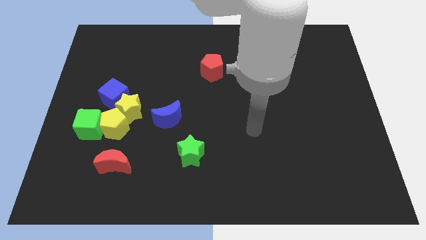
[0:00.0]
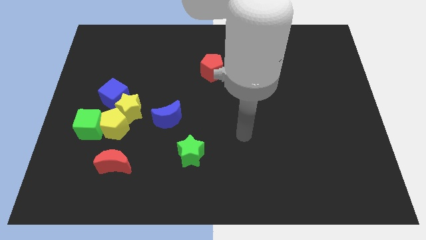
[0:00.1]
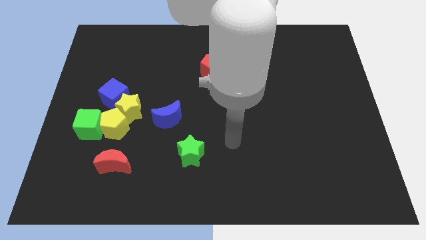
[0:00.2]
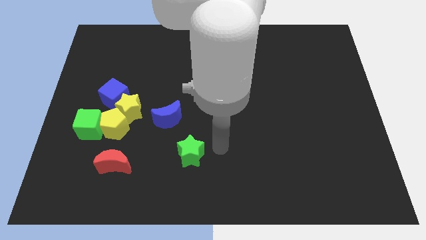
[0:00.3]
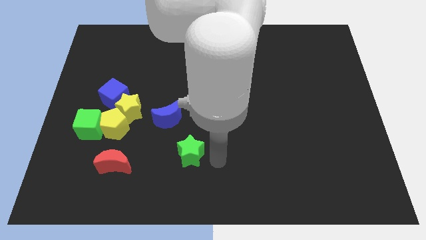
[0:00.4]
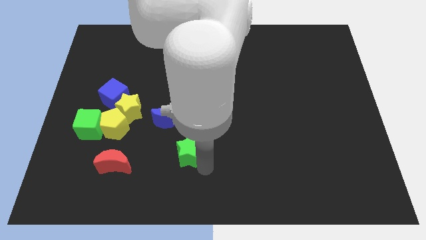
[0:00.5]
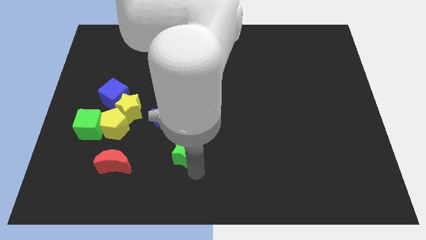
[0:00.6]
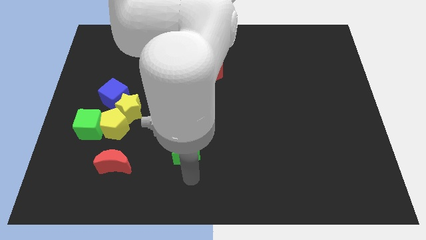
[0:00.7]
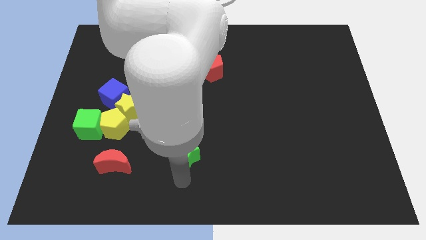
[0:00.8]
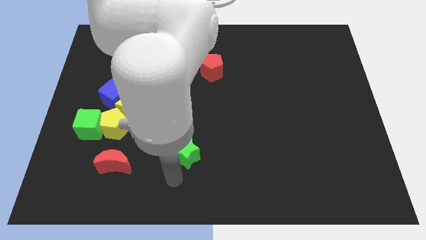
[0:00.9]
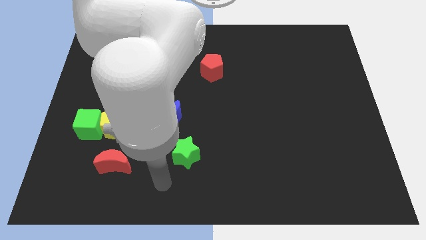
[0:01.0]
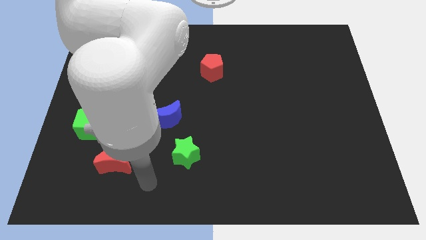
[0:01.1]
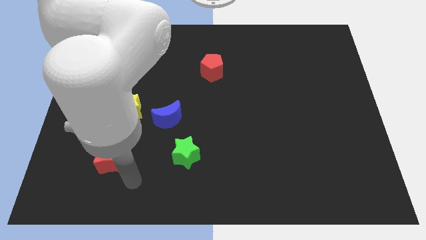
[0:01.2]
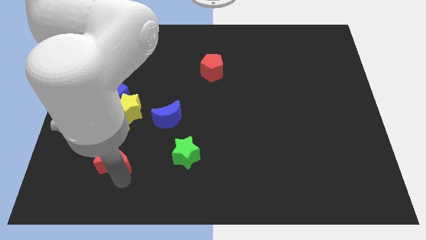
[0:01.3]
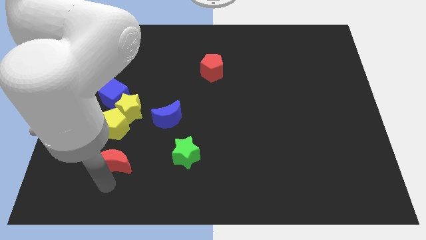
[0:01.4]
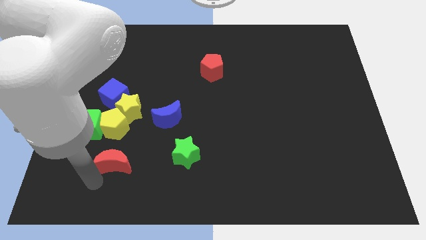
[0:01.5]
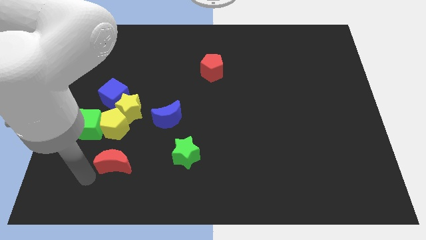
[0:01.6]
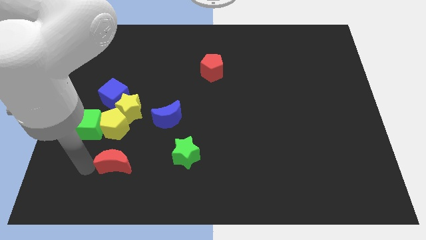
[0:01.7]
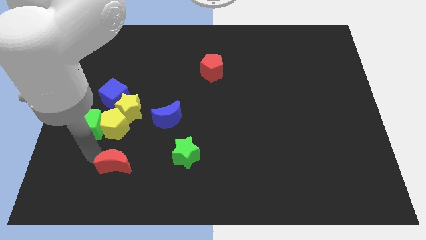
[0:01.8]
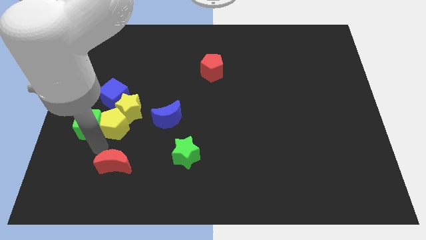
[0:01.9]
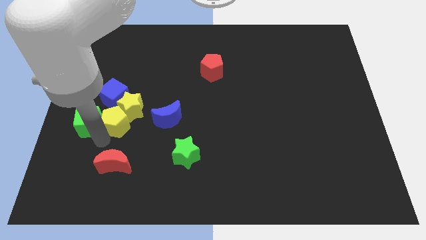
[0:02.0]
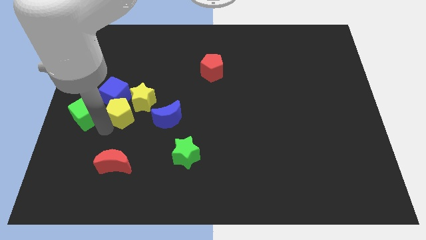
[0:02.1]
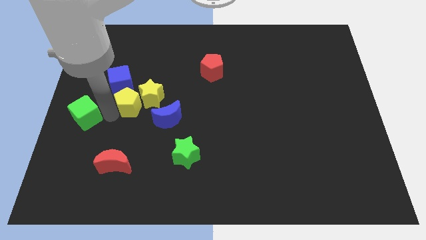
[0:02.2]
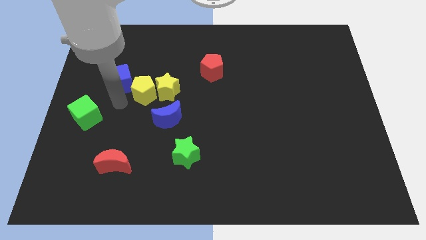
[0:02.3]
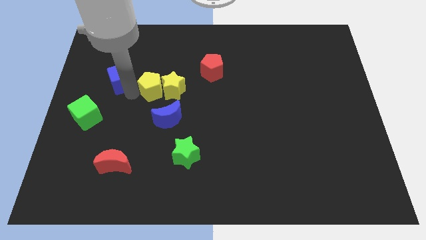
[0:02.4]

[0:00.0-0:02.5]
push the yellow star to the right a little bit

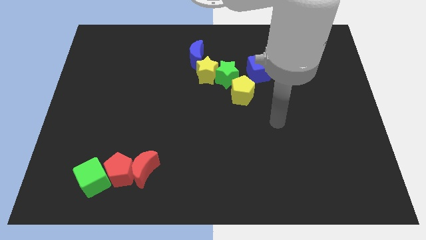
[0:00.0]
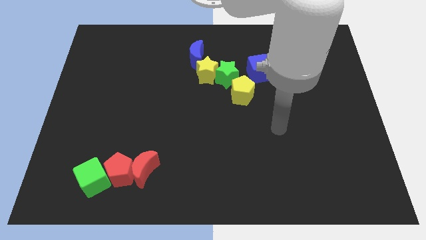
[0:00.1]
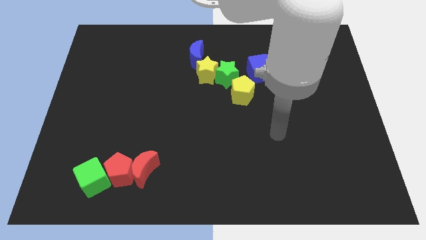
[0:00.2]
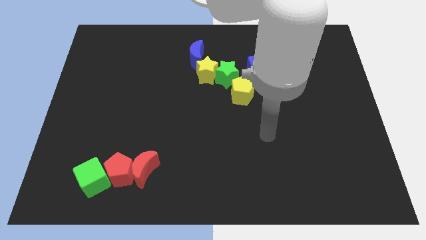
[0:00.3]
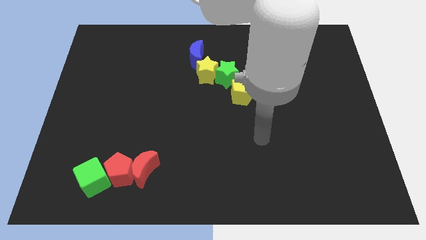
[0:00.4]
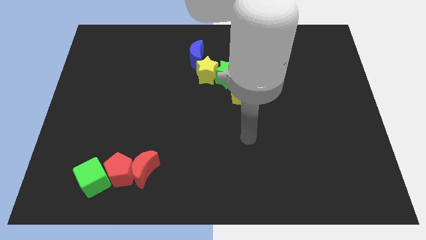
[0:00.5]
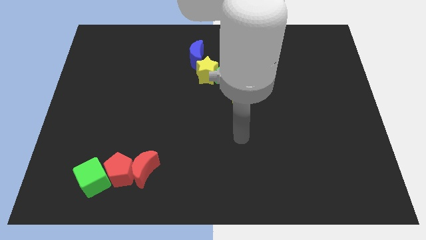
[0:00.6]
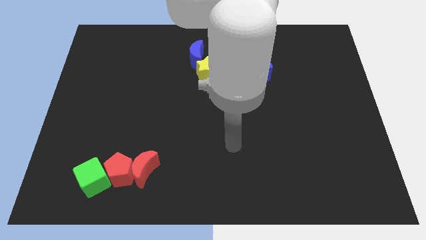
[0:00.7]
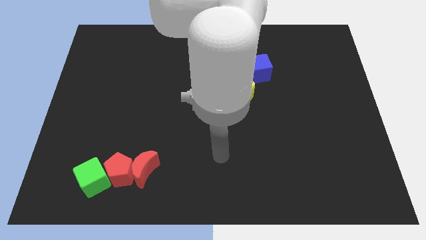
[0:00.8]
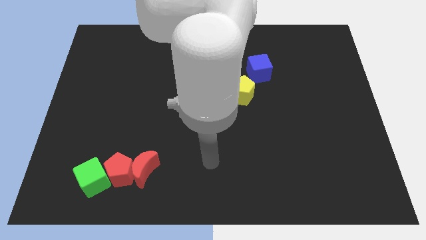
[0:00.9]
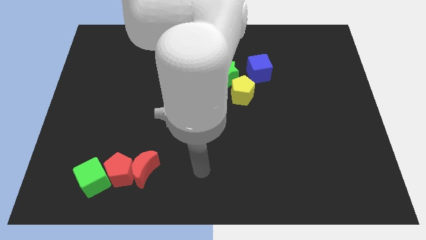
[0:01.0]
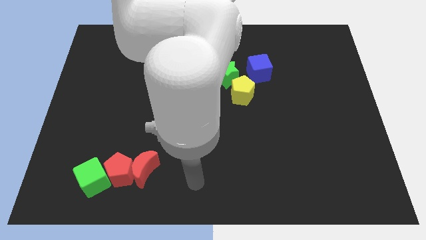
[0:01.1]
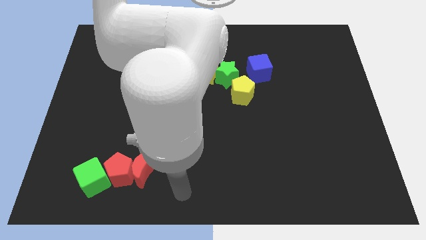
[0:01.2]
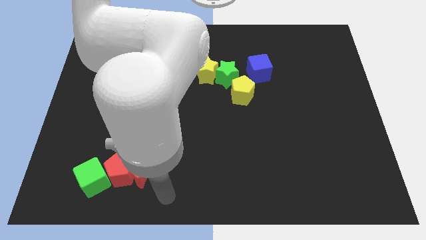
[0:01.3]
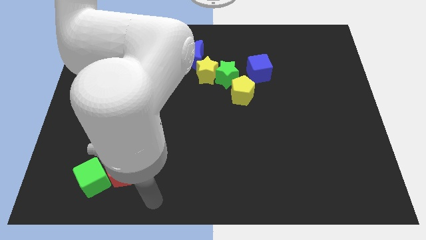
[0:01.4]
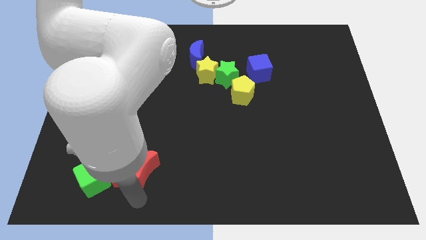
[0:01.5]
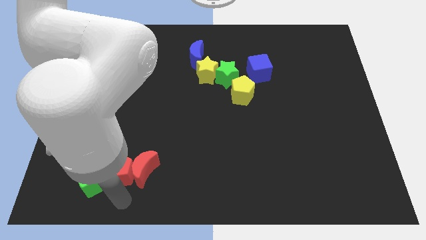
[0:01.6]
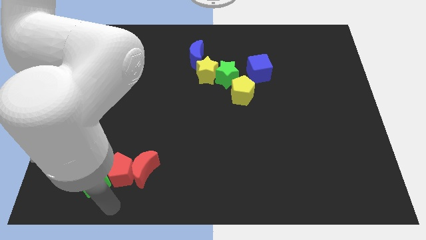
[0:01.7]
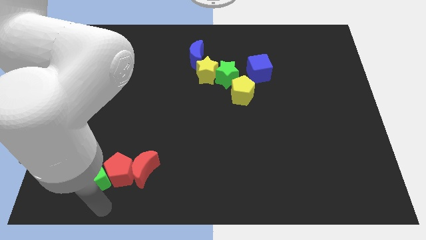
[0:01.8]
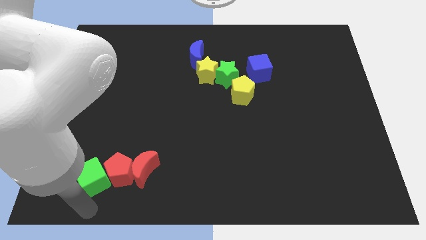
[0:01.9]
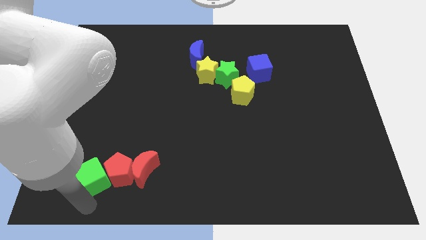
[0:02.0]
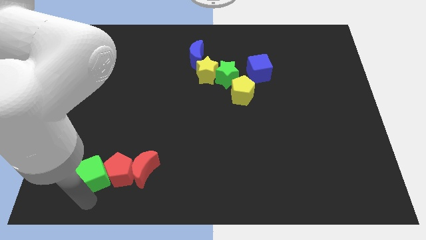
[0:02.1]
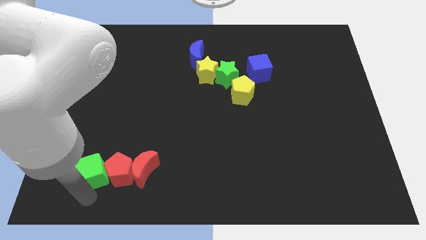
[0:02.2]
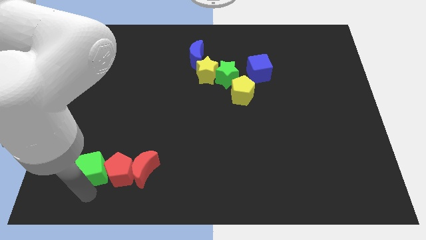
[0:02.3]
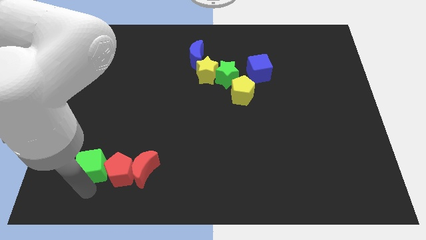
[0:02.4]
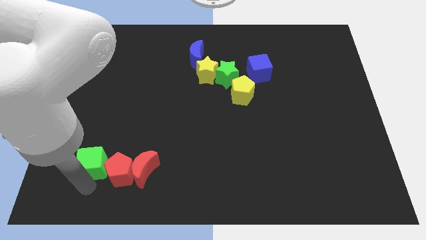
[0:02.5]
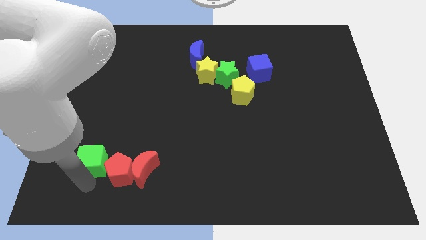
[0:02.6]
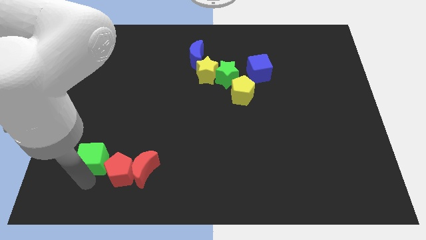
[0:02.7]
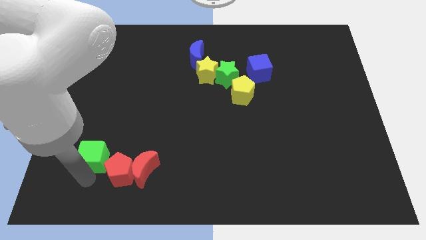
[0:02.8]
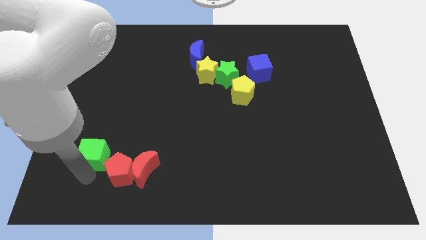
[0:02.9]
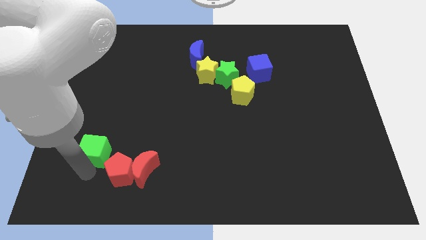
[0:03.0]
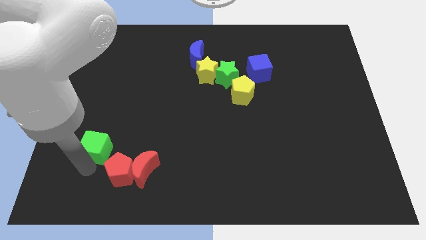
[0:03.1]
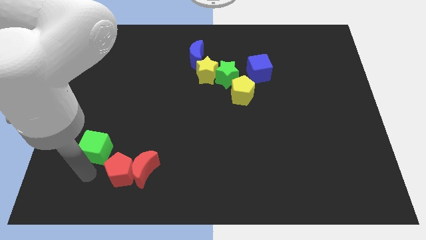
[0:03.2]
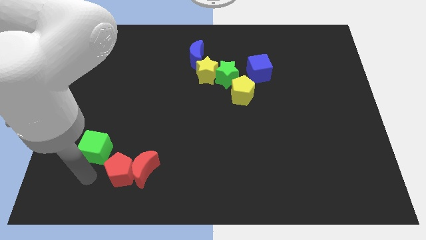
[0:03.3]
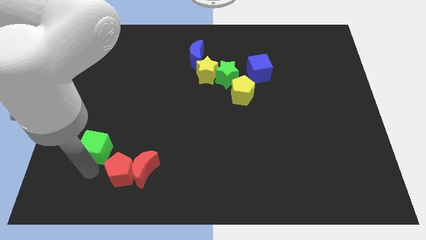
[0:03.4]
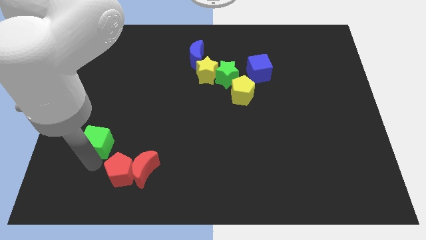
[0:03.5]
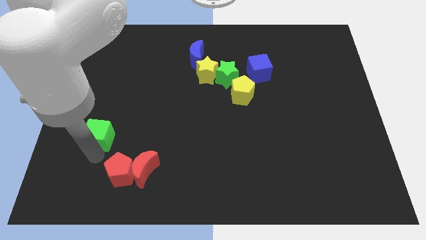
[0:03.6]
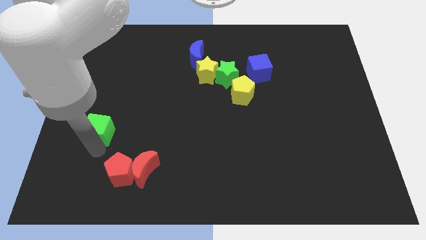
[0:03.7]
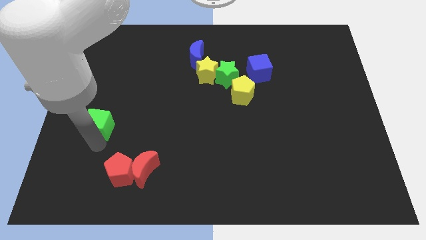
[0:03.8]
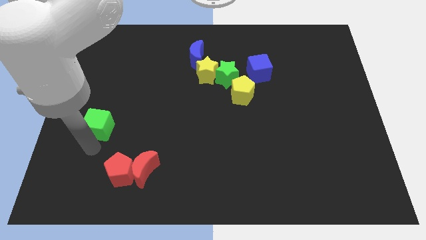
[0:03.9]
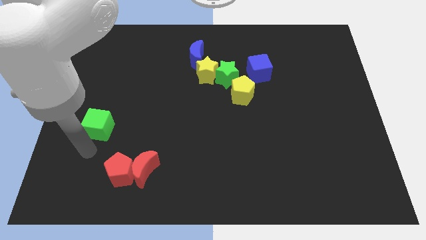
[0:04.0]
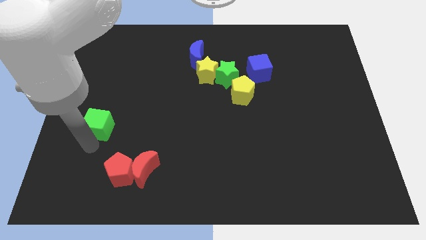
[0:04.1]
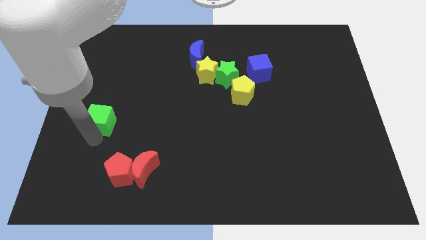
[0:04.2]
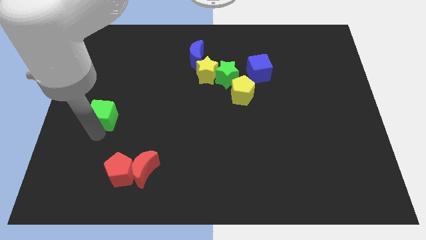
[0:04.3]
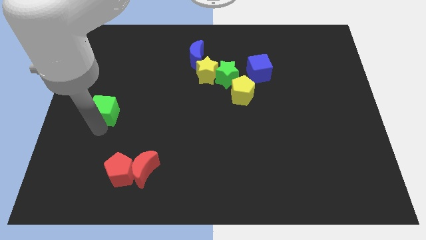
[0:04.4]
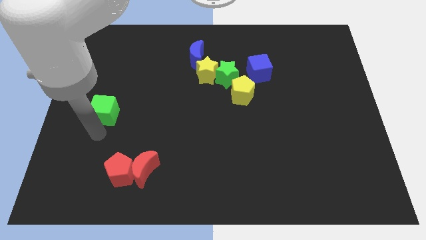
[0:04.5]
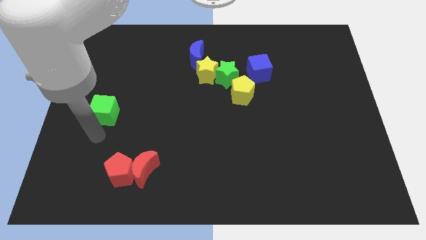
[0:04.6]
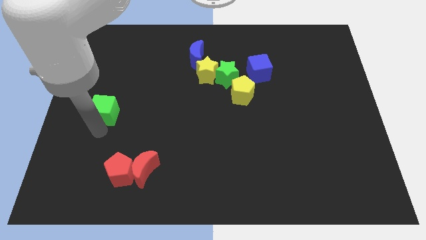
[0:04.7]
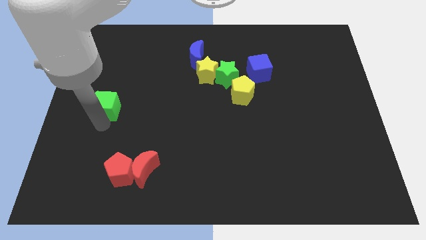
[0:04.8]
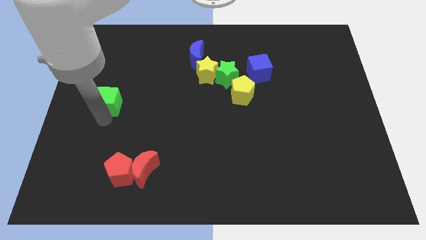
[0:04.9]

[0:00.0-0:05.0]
move the green cube upwards

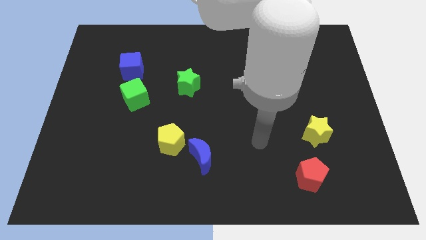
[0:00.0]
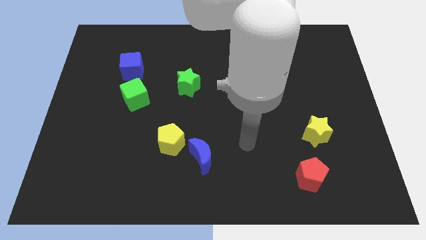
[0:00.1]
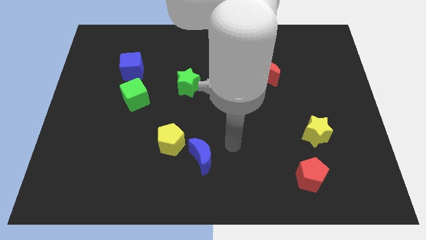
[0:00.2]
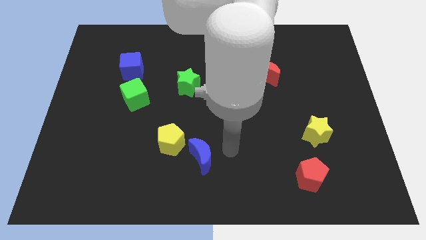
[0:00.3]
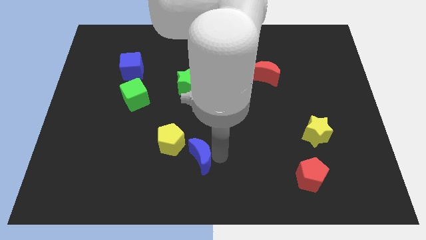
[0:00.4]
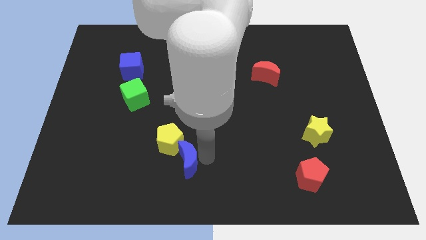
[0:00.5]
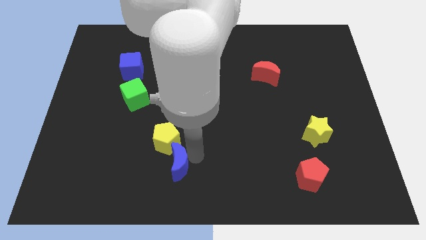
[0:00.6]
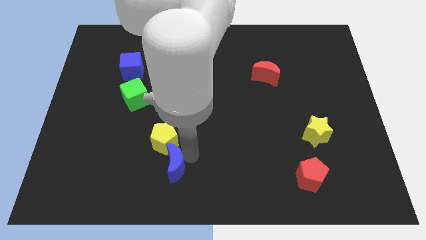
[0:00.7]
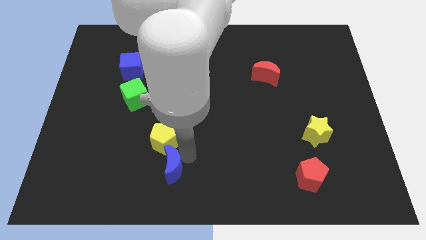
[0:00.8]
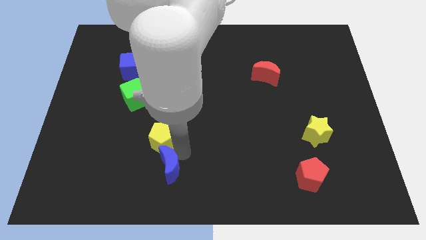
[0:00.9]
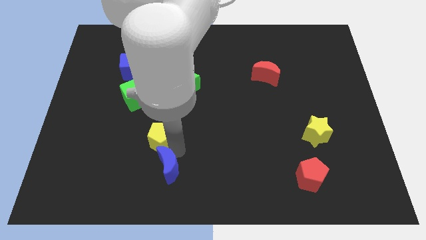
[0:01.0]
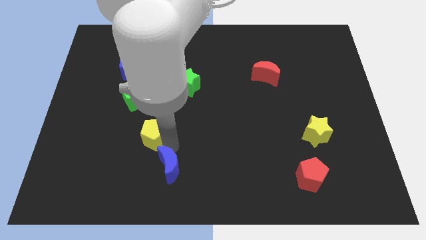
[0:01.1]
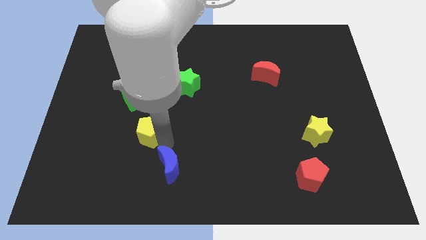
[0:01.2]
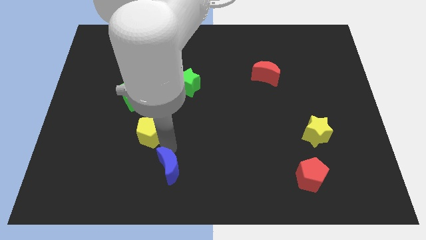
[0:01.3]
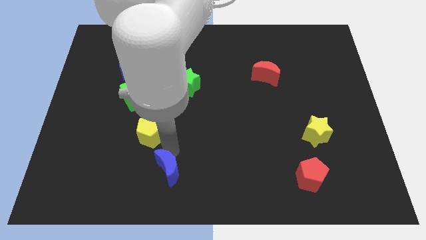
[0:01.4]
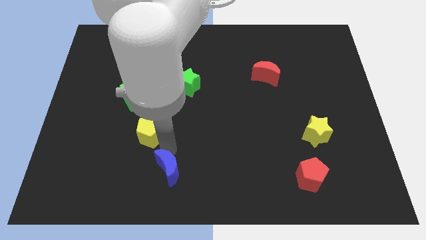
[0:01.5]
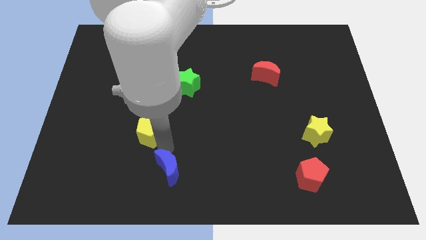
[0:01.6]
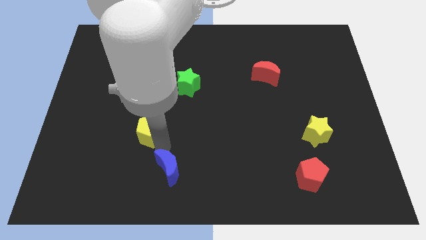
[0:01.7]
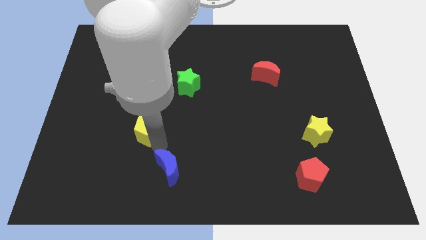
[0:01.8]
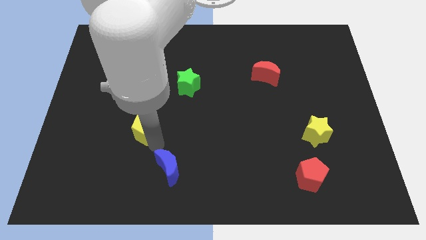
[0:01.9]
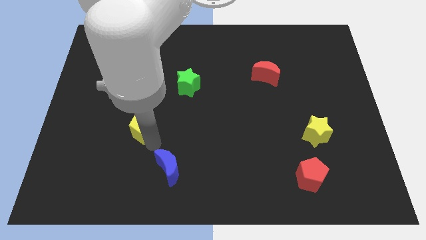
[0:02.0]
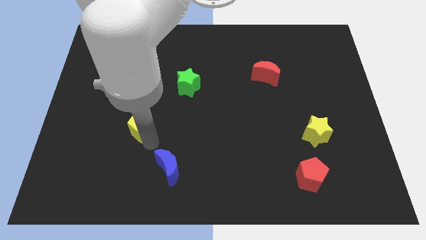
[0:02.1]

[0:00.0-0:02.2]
slide the yellow pentagon upwards and then to the left somewhat
